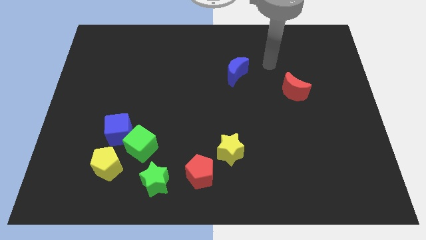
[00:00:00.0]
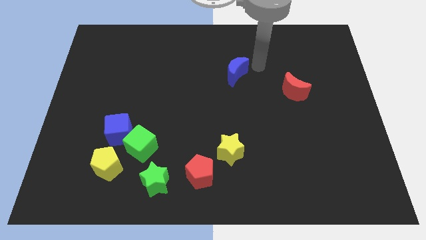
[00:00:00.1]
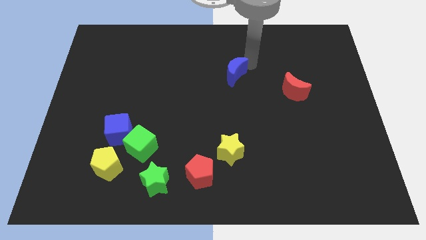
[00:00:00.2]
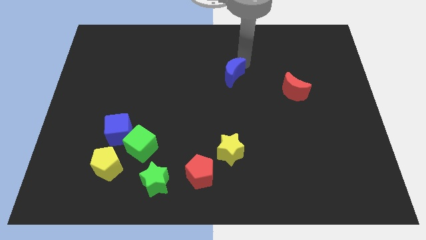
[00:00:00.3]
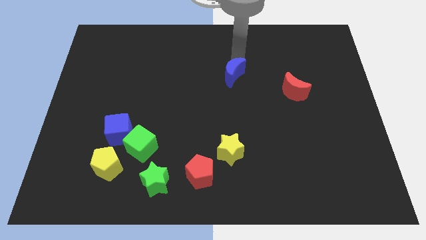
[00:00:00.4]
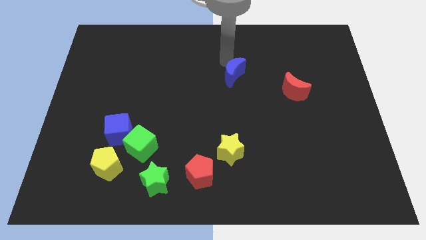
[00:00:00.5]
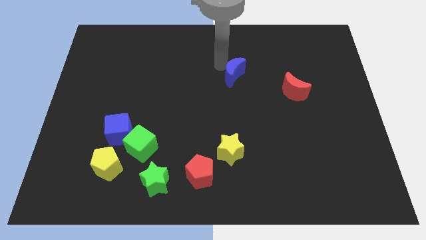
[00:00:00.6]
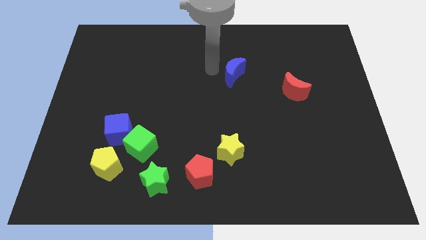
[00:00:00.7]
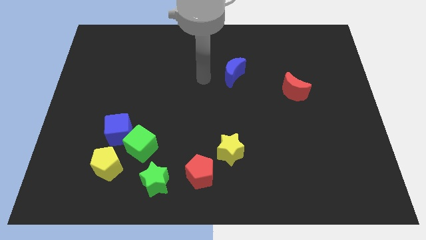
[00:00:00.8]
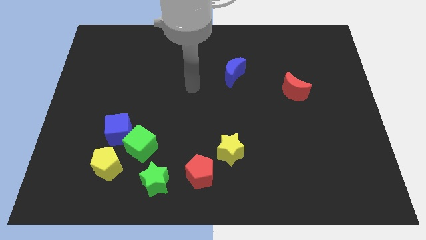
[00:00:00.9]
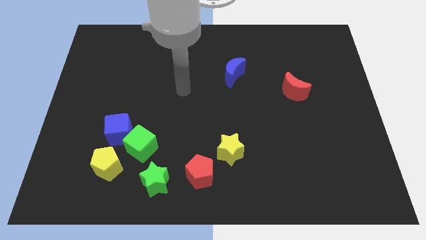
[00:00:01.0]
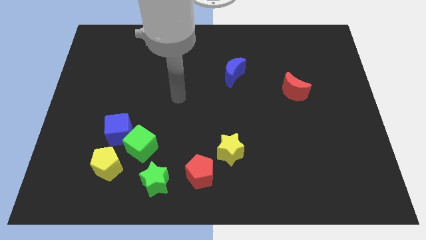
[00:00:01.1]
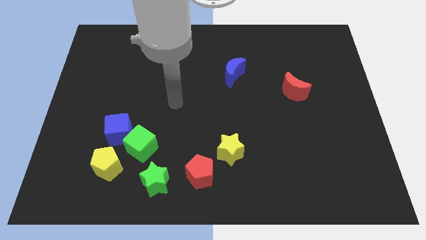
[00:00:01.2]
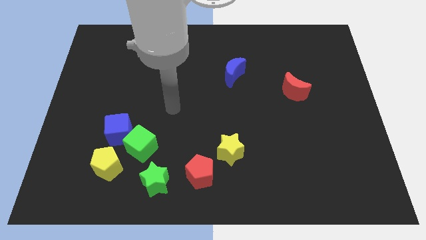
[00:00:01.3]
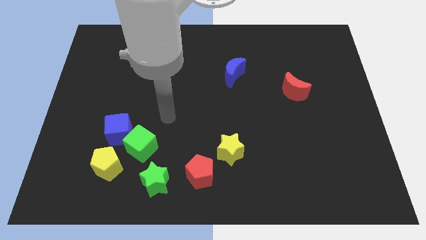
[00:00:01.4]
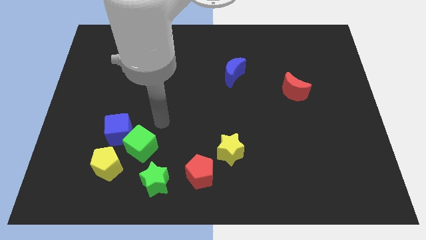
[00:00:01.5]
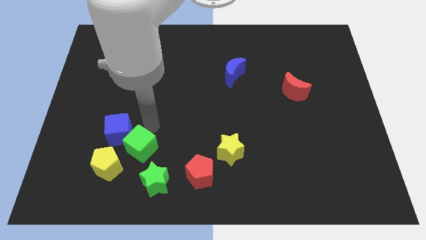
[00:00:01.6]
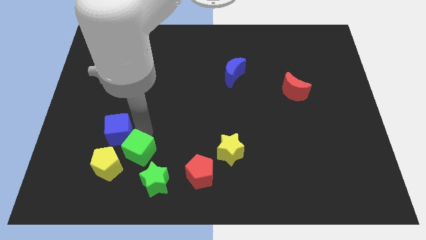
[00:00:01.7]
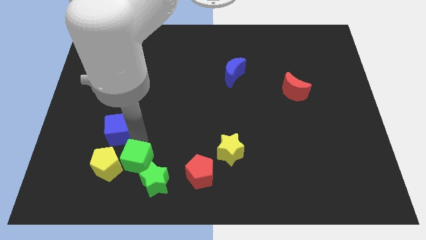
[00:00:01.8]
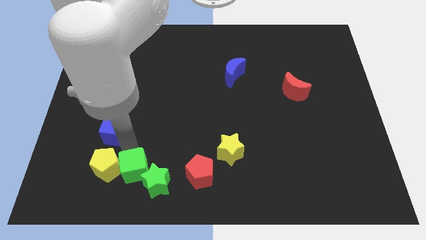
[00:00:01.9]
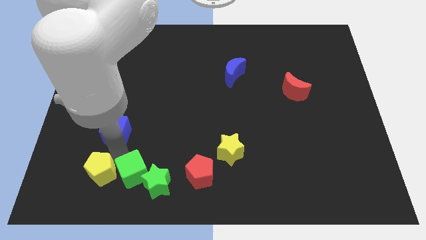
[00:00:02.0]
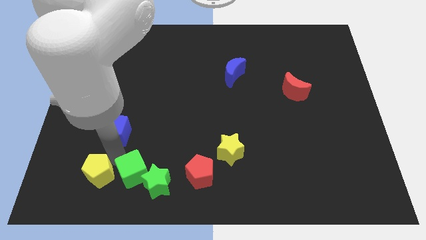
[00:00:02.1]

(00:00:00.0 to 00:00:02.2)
pull the blue cube apart from the green cube and yellow pentagon

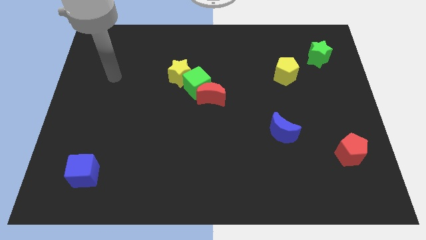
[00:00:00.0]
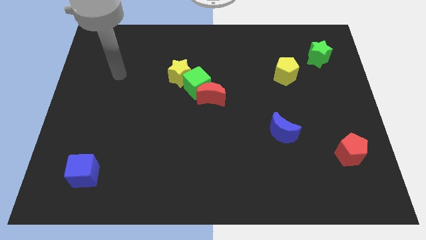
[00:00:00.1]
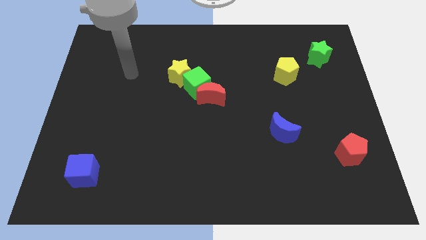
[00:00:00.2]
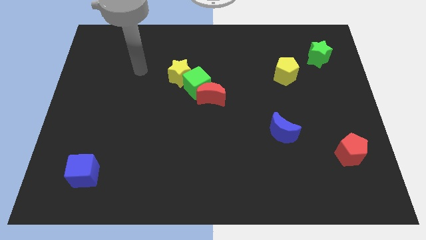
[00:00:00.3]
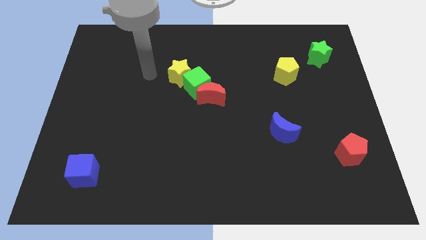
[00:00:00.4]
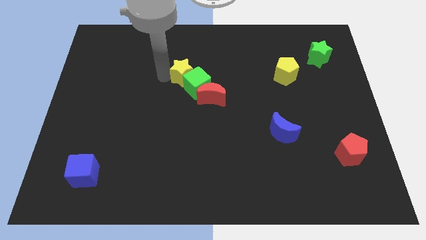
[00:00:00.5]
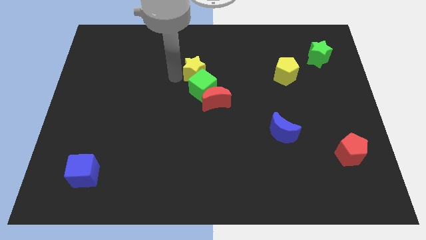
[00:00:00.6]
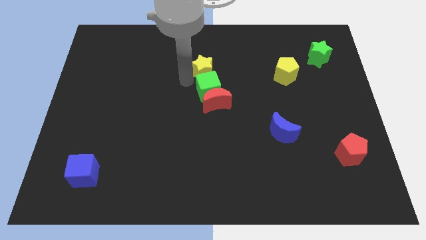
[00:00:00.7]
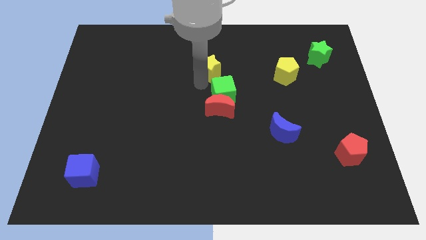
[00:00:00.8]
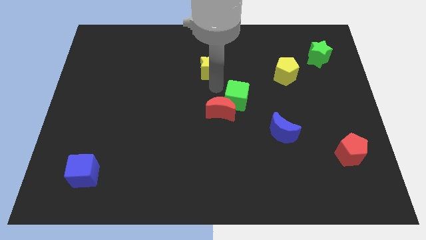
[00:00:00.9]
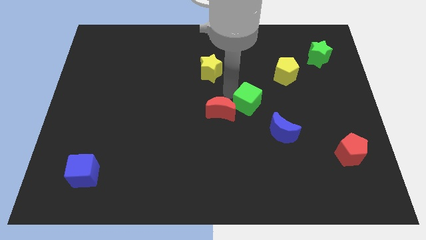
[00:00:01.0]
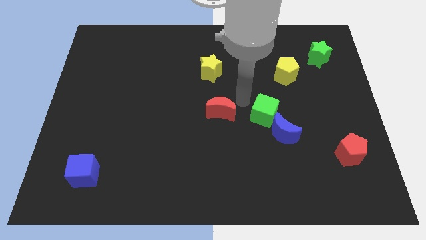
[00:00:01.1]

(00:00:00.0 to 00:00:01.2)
separate the red moon from the green cube

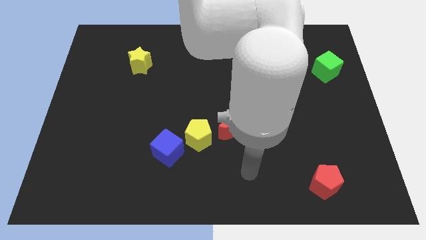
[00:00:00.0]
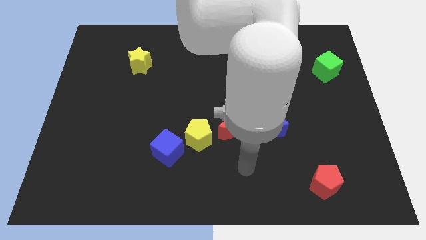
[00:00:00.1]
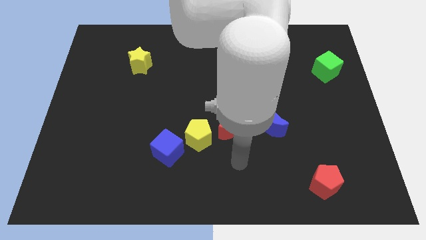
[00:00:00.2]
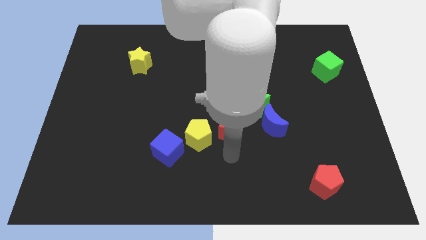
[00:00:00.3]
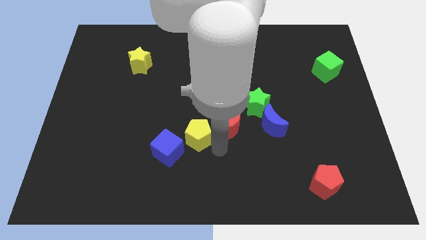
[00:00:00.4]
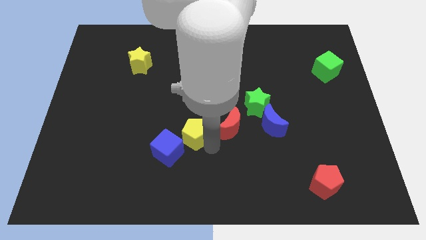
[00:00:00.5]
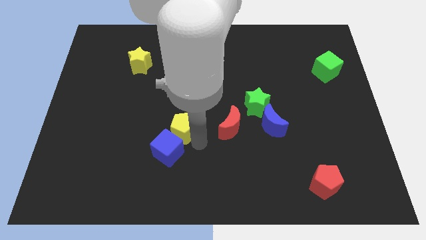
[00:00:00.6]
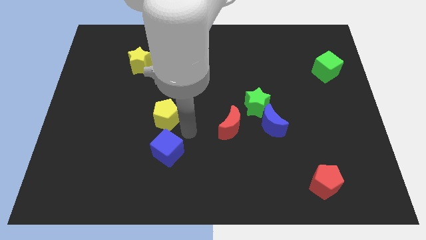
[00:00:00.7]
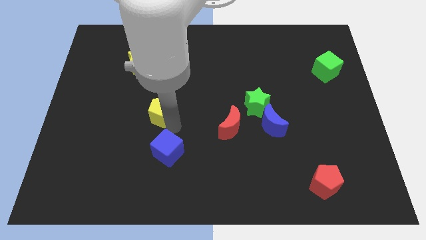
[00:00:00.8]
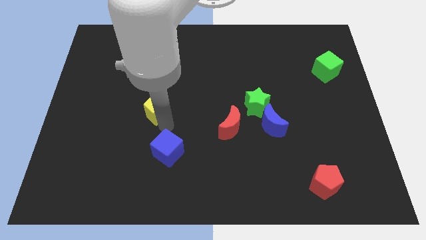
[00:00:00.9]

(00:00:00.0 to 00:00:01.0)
separate the blue cube from the yellow pentagon

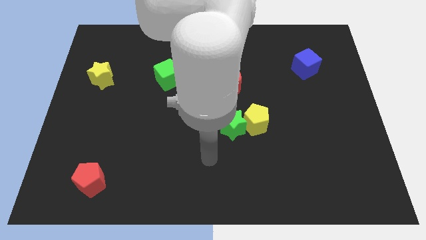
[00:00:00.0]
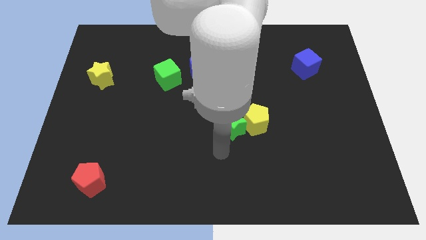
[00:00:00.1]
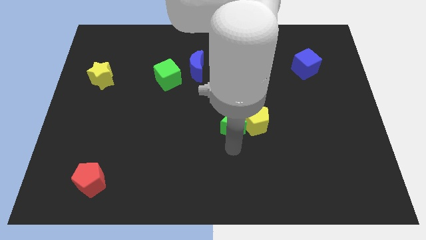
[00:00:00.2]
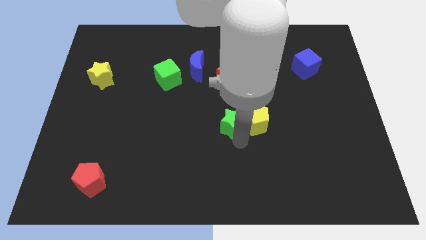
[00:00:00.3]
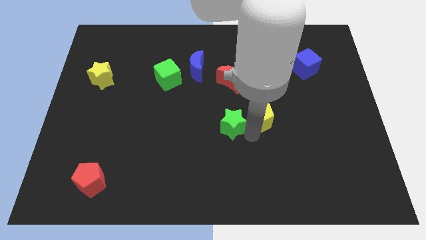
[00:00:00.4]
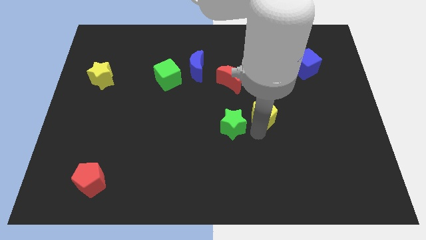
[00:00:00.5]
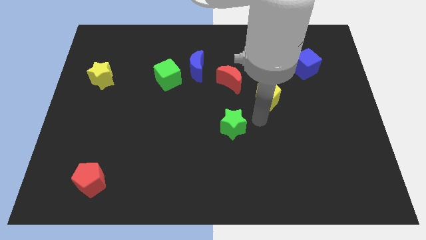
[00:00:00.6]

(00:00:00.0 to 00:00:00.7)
separate the green star from the yellow pentagon

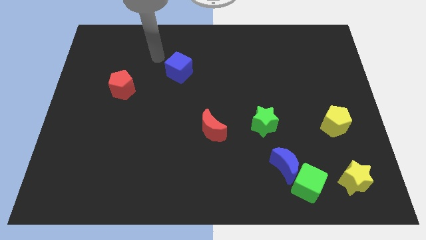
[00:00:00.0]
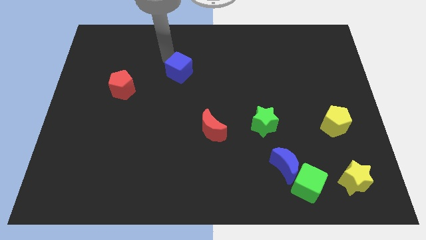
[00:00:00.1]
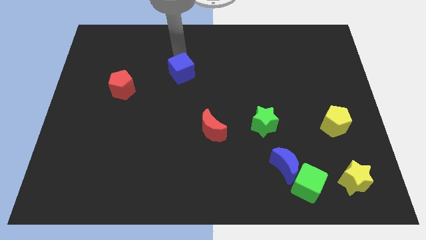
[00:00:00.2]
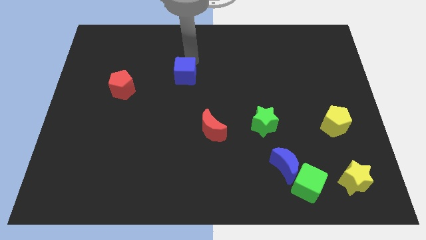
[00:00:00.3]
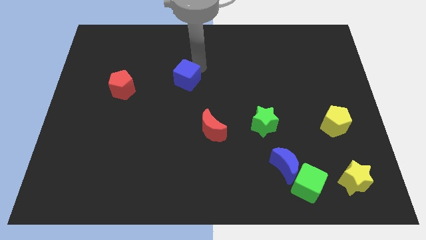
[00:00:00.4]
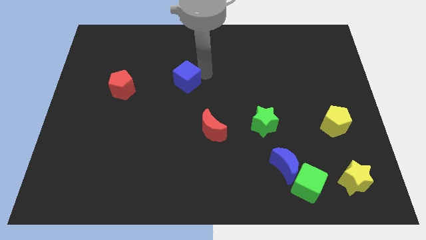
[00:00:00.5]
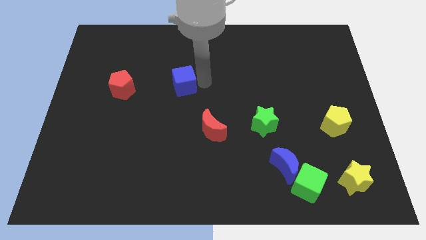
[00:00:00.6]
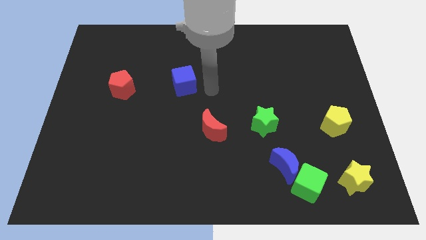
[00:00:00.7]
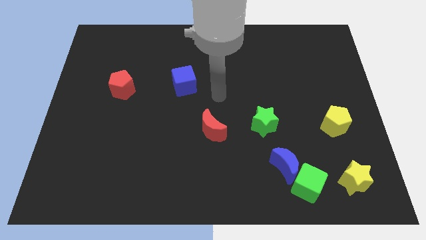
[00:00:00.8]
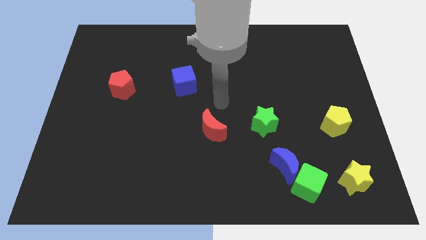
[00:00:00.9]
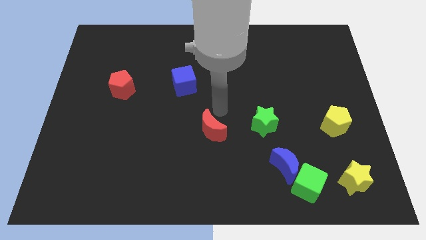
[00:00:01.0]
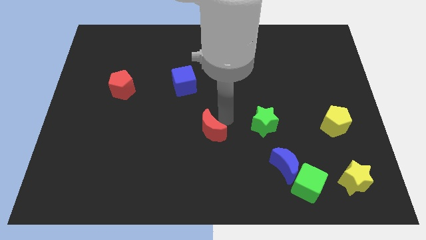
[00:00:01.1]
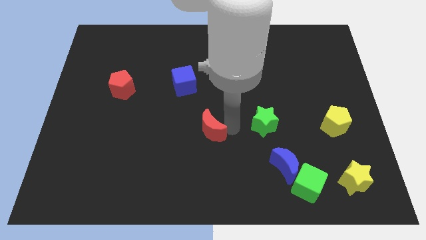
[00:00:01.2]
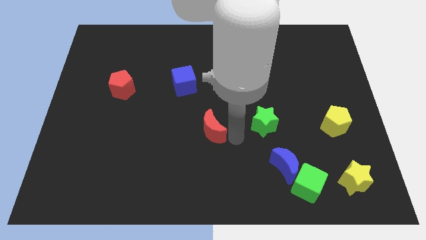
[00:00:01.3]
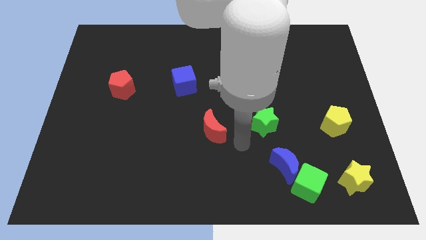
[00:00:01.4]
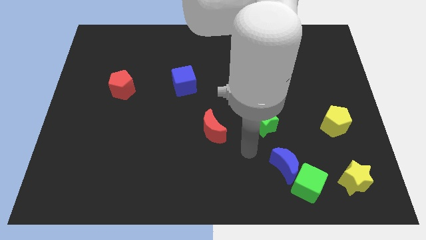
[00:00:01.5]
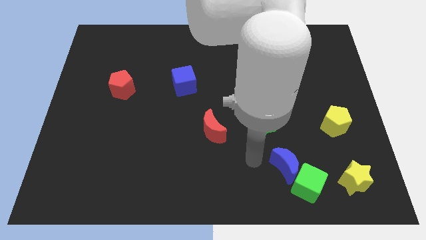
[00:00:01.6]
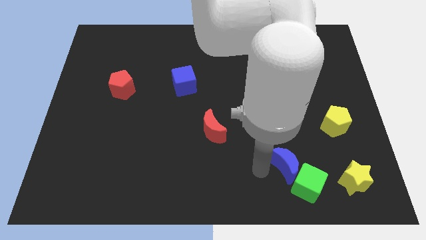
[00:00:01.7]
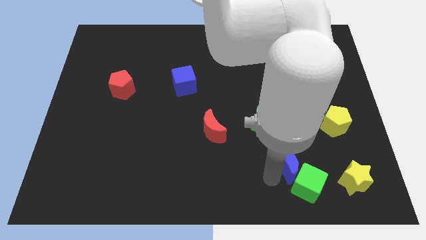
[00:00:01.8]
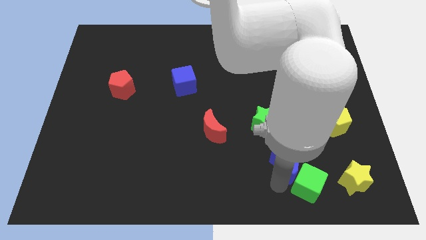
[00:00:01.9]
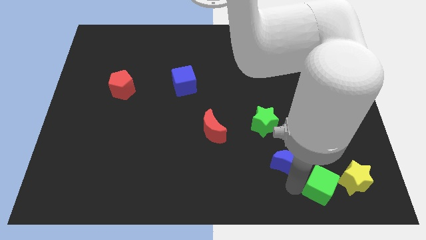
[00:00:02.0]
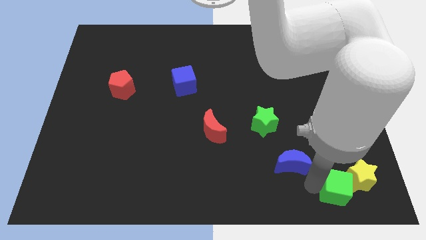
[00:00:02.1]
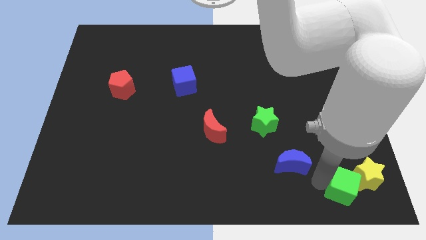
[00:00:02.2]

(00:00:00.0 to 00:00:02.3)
pull the blue moon apart from the green cube

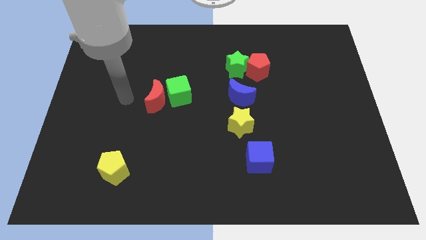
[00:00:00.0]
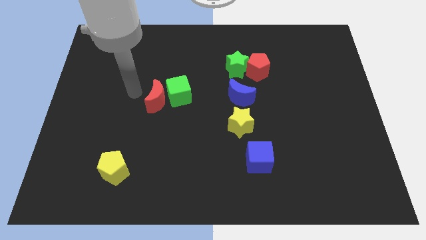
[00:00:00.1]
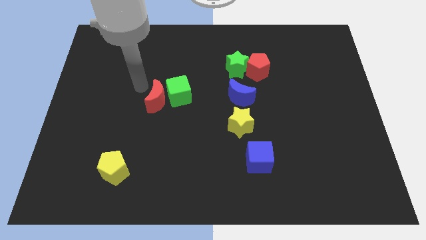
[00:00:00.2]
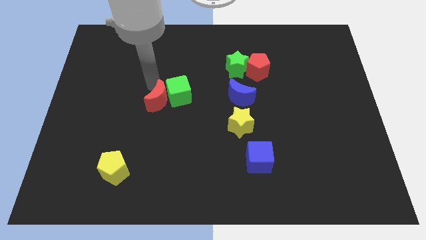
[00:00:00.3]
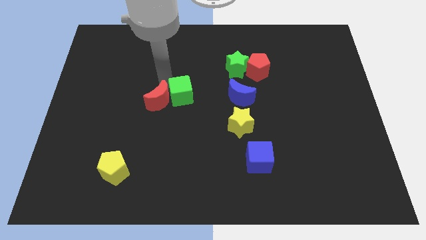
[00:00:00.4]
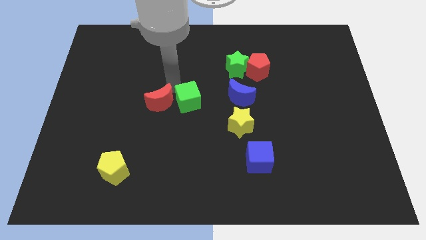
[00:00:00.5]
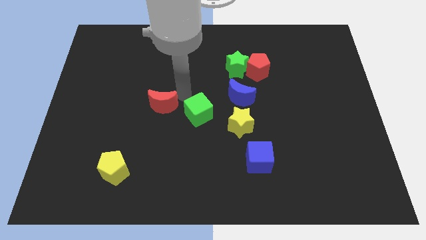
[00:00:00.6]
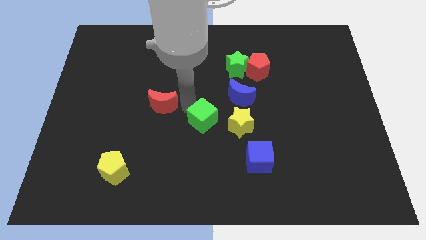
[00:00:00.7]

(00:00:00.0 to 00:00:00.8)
move the red moon away from the green cube

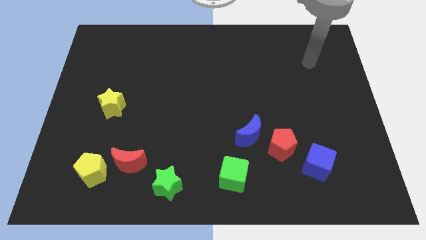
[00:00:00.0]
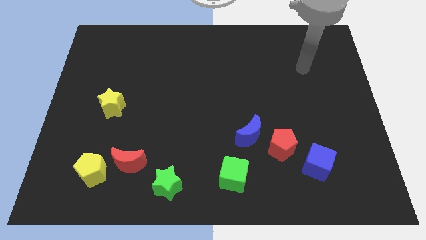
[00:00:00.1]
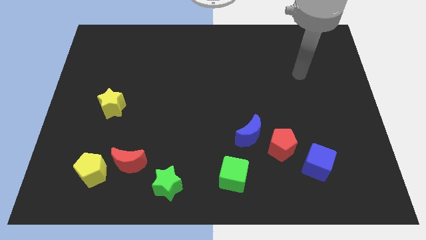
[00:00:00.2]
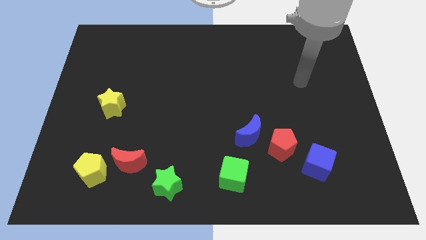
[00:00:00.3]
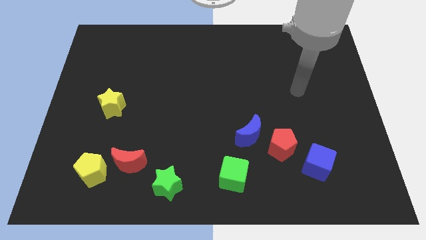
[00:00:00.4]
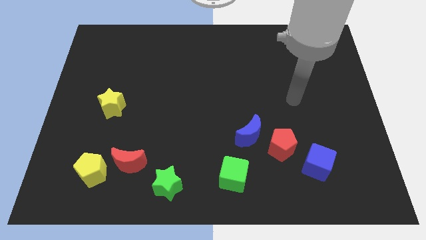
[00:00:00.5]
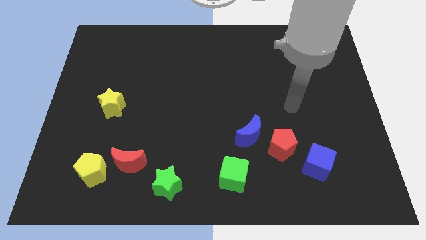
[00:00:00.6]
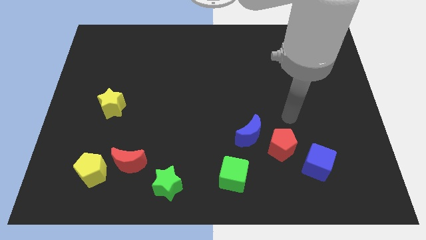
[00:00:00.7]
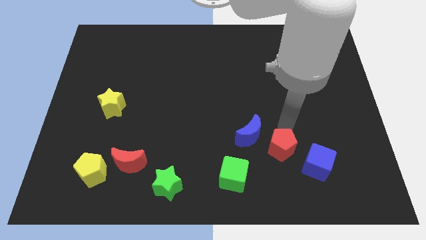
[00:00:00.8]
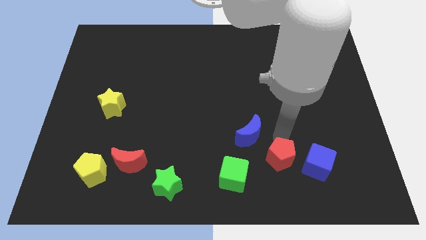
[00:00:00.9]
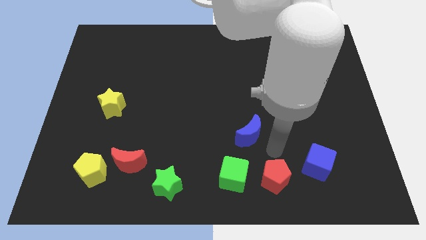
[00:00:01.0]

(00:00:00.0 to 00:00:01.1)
pull the blue moon apart from the red pentagon
